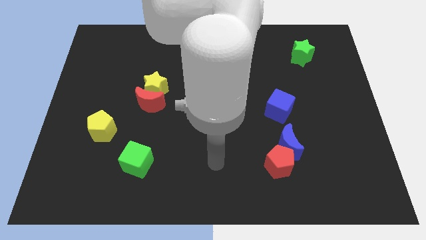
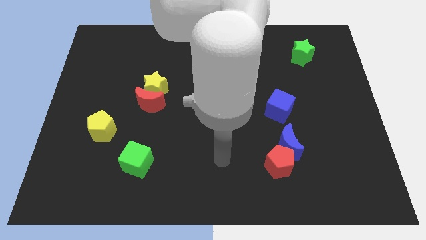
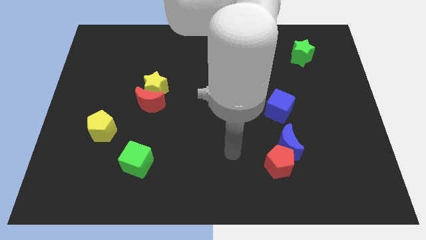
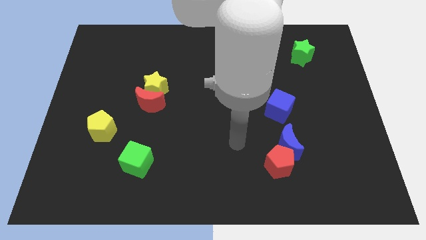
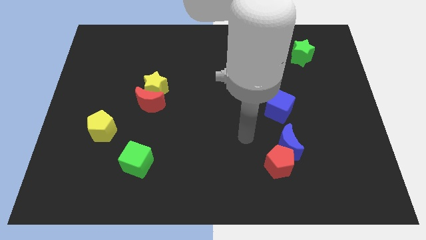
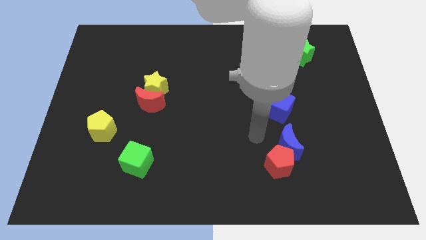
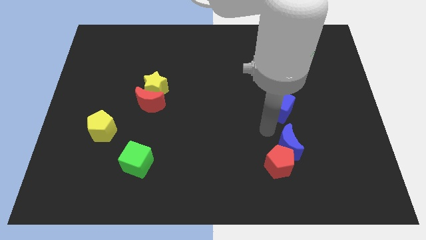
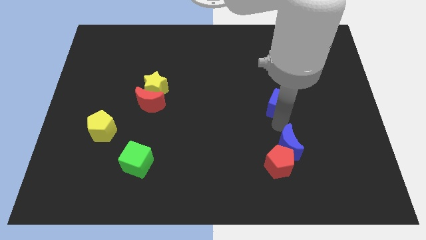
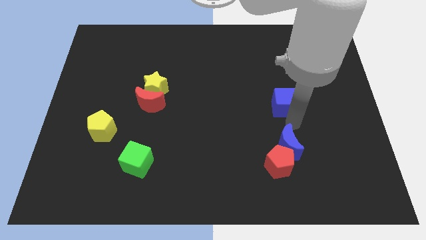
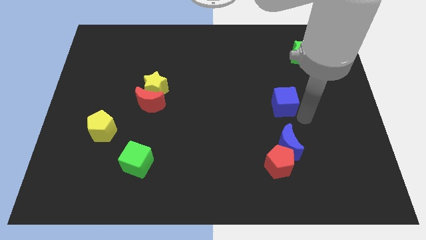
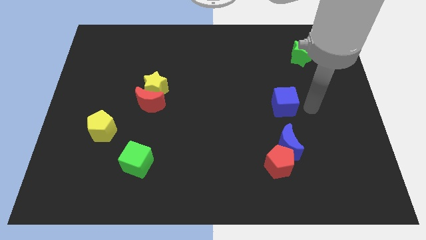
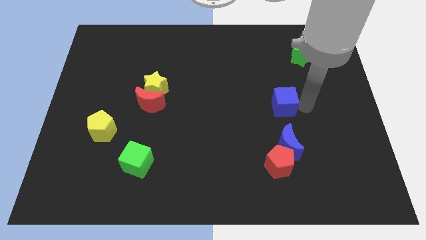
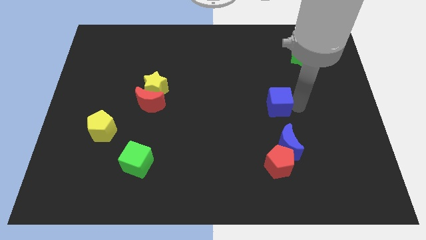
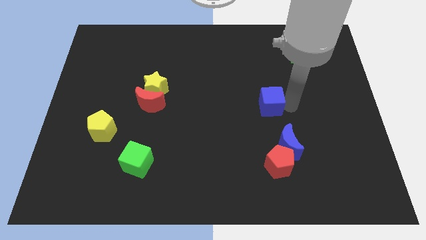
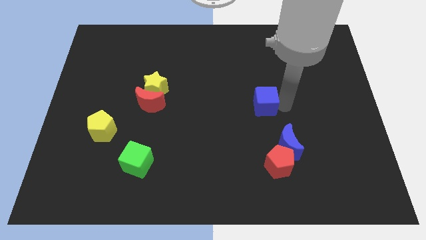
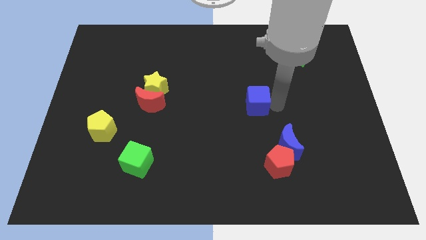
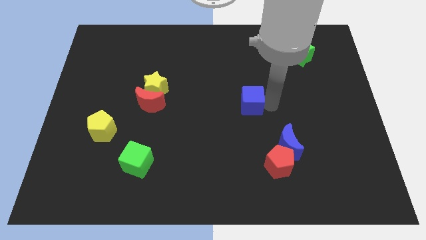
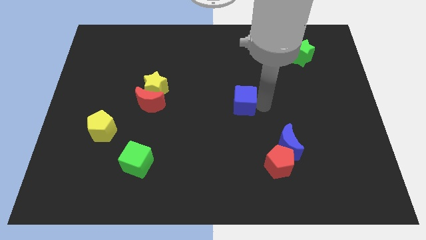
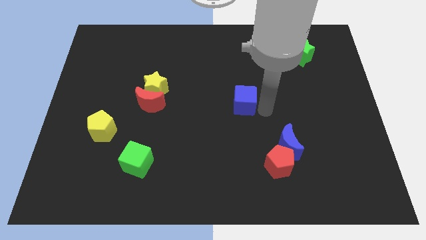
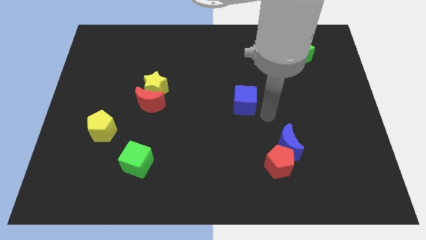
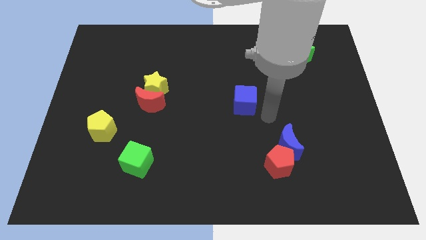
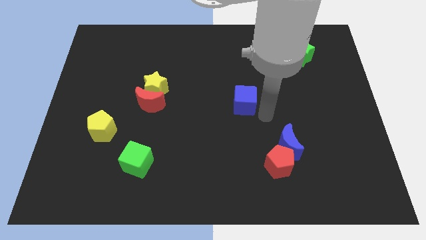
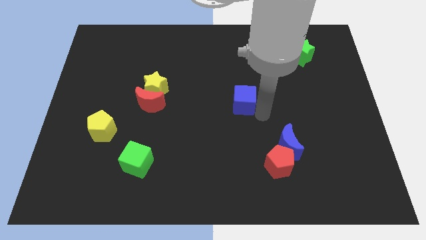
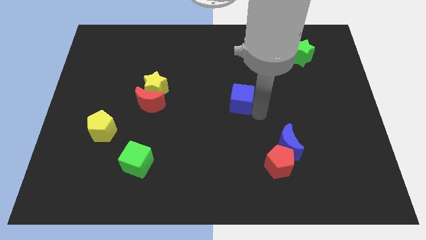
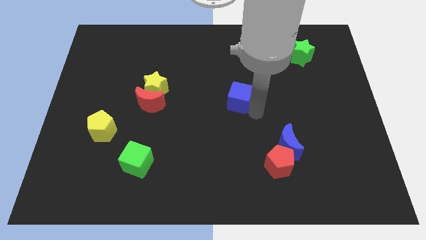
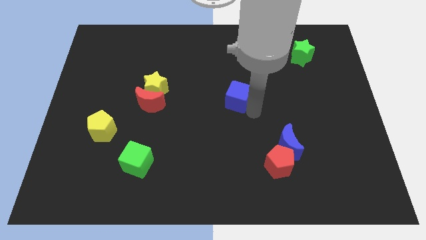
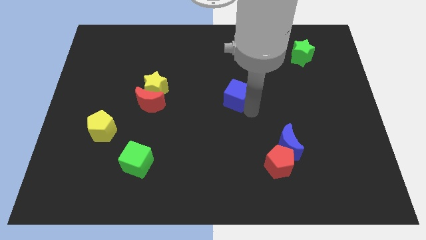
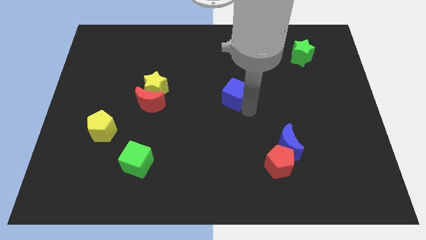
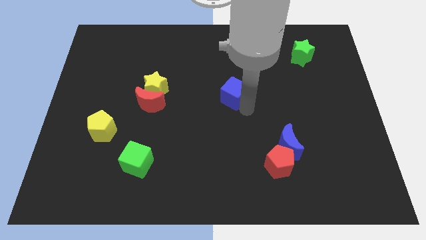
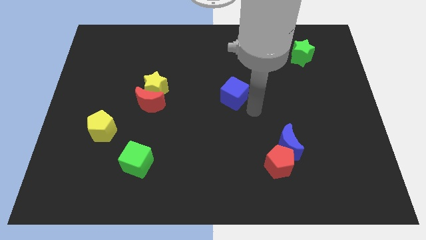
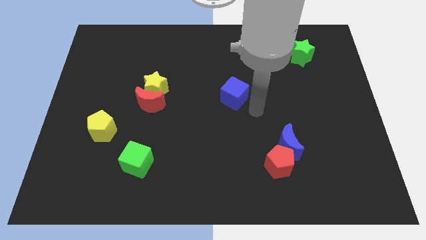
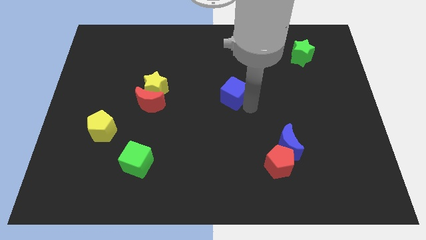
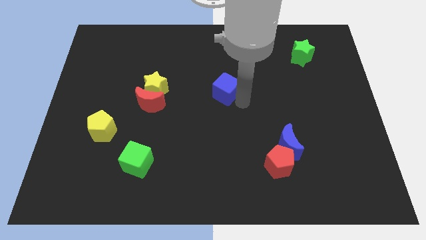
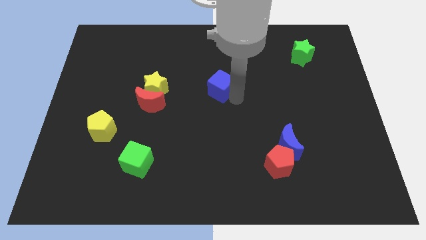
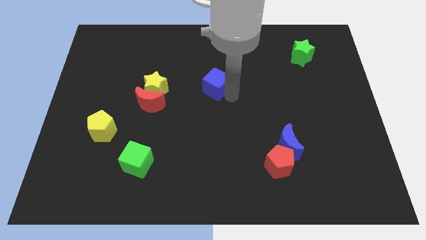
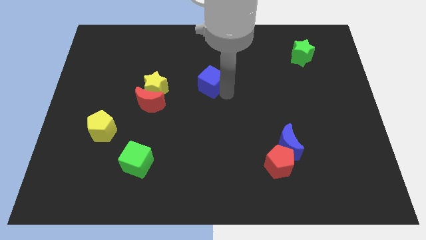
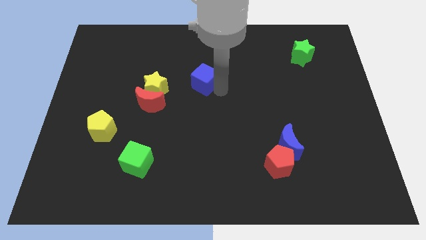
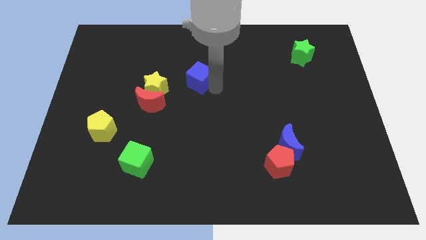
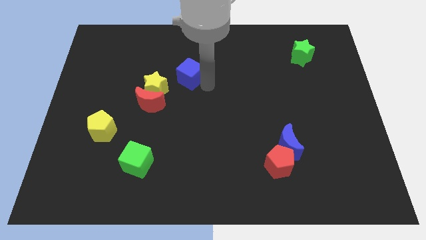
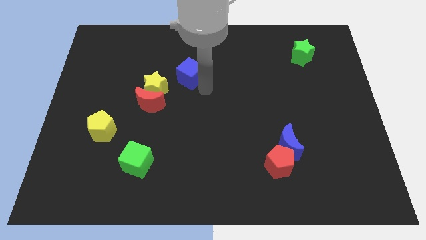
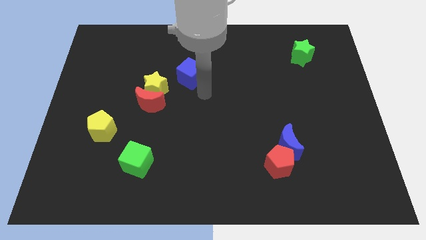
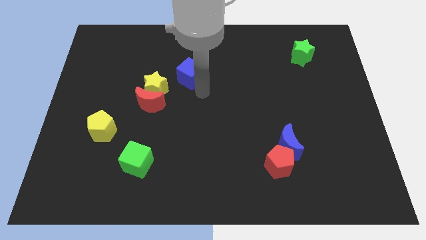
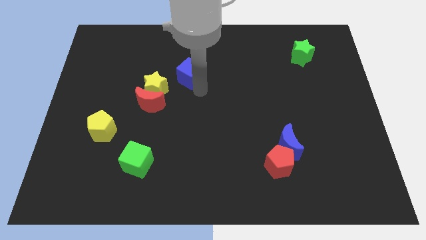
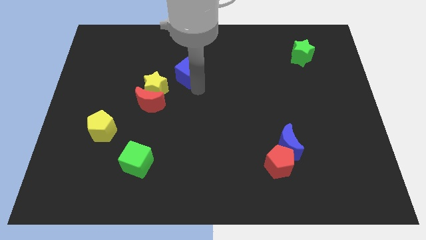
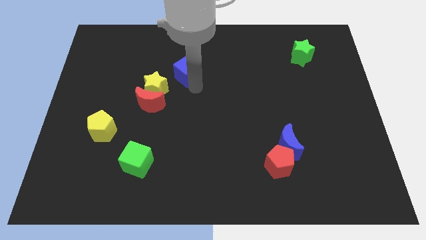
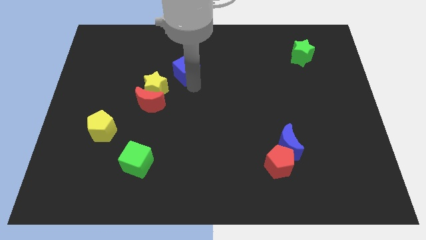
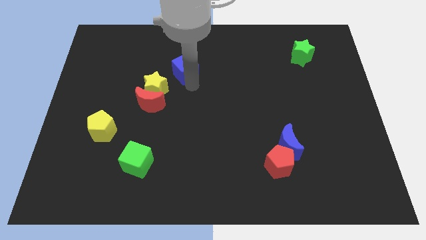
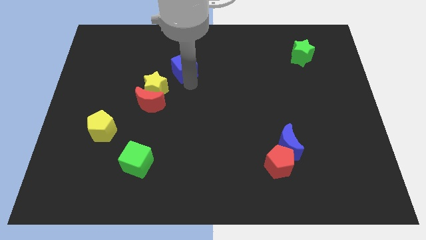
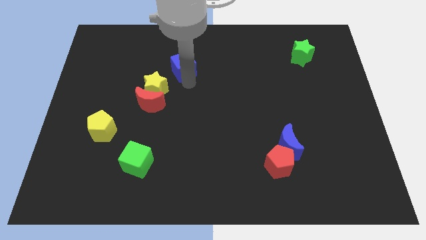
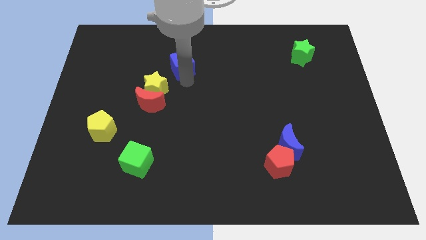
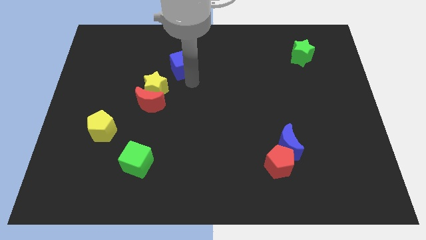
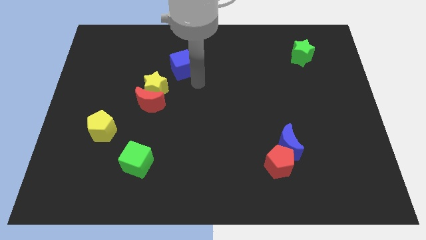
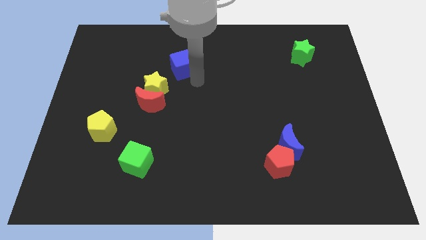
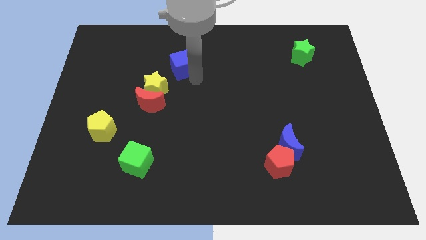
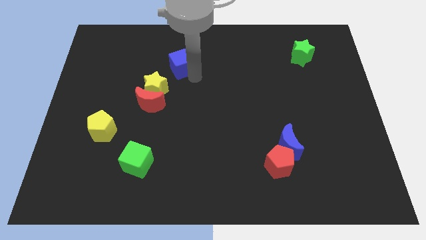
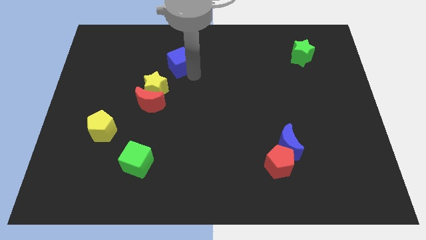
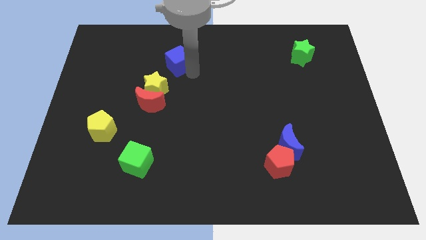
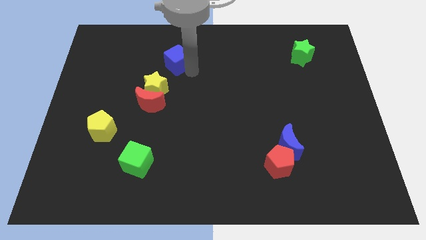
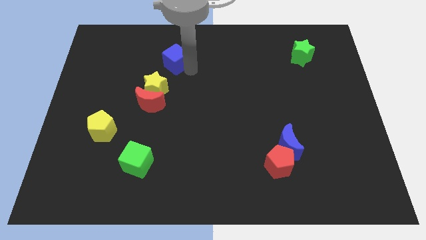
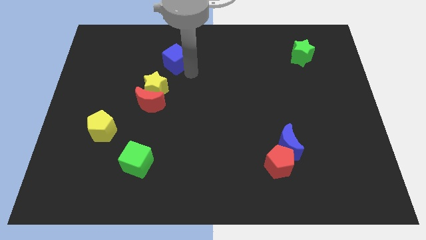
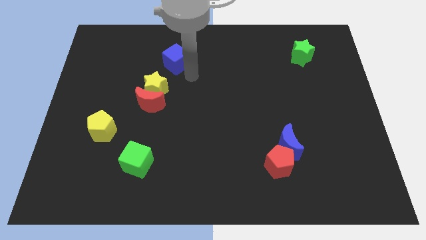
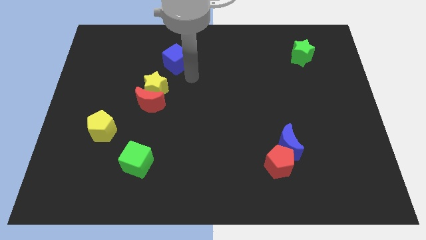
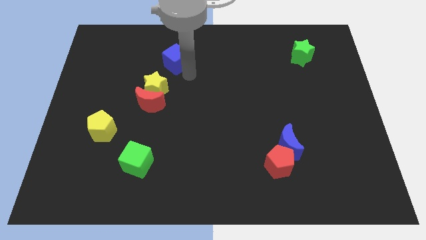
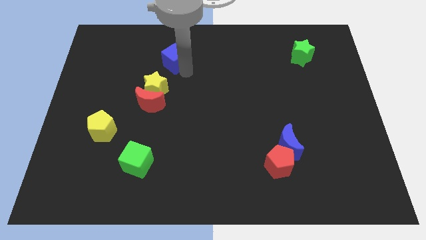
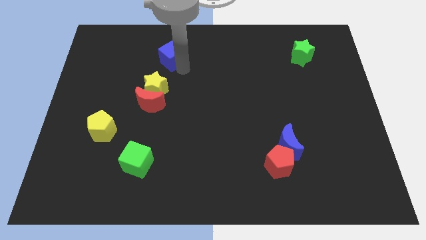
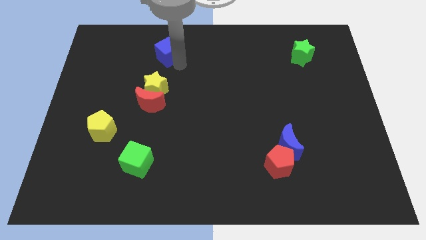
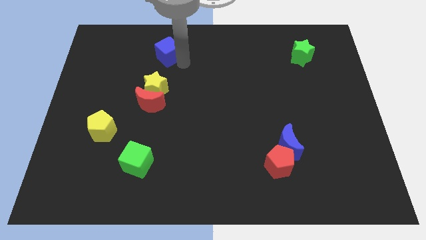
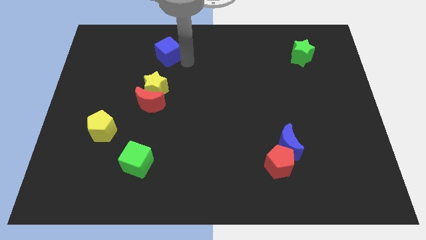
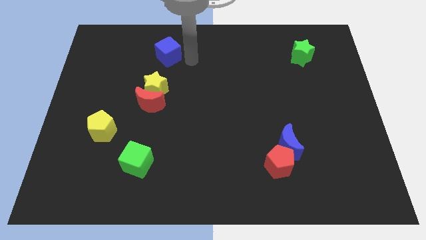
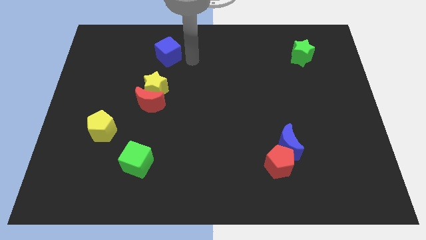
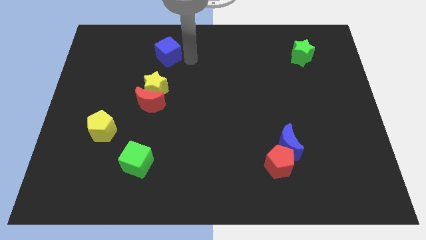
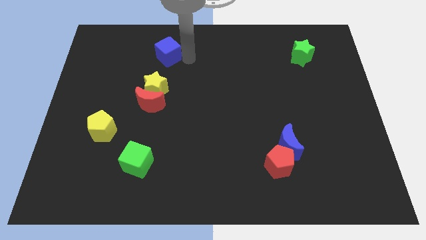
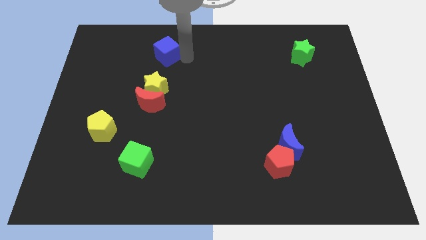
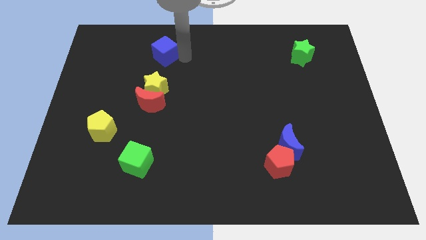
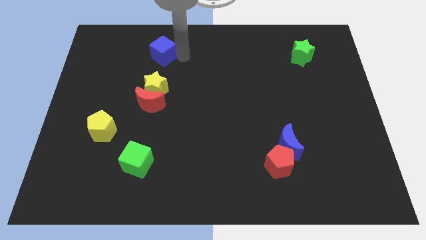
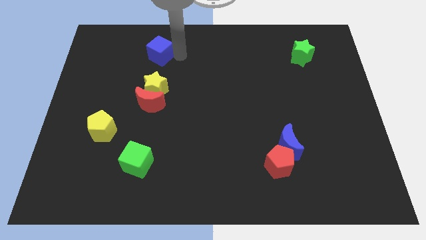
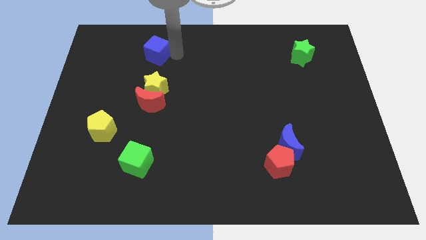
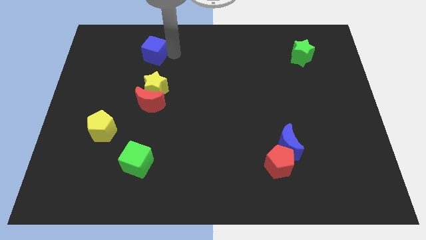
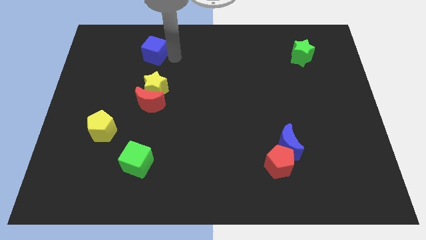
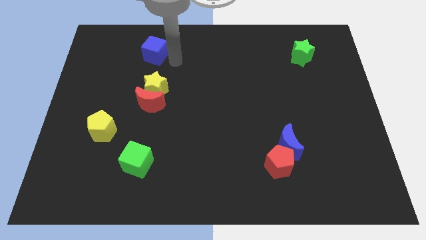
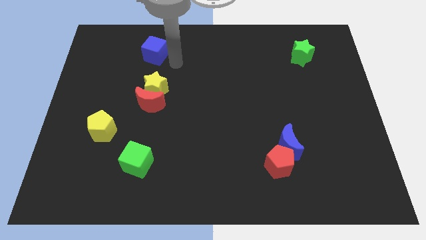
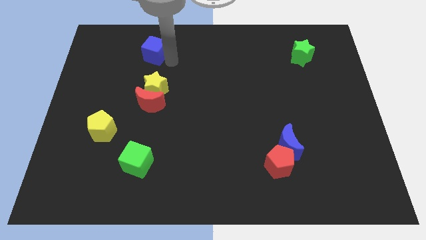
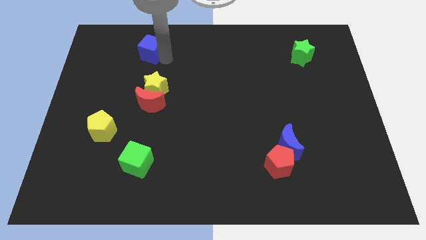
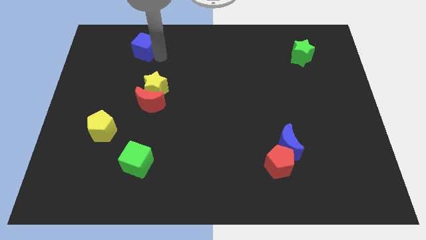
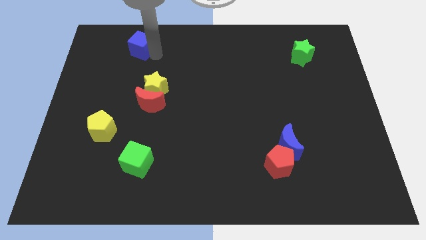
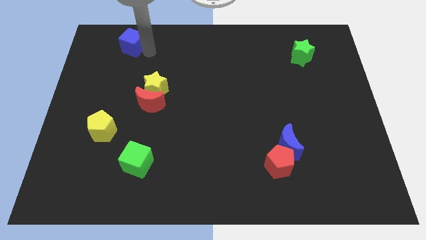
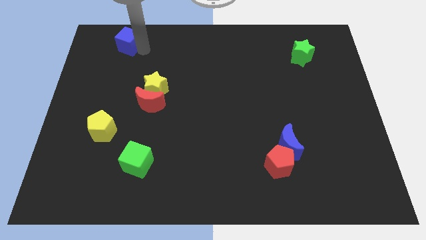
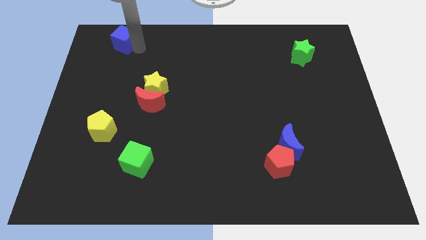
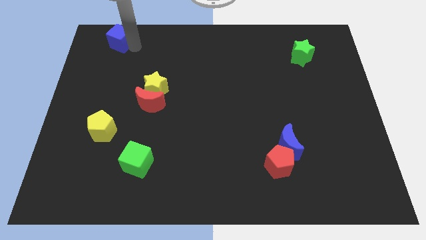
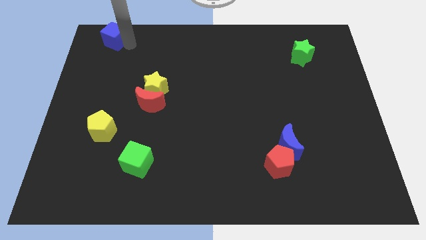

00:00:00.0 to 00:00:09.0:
move the blue cube to the top left corner
